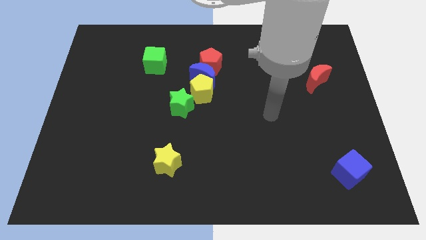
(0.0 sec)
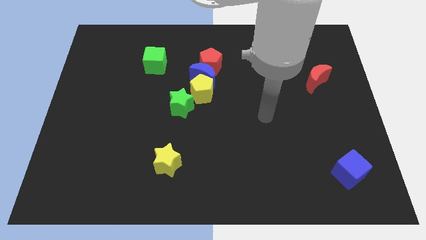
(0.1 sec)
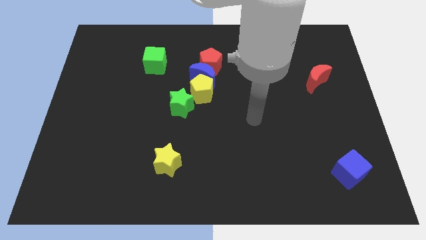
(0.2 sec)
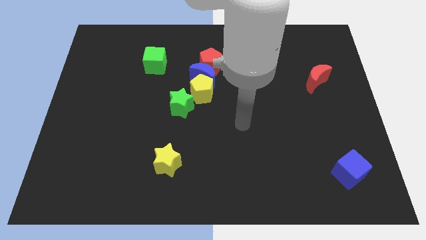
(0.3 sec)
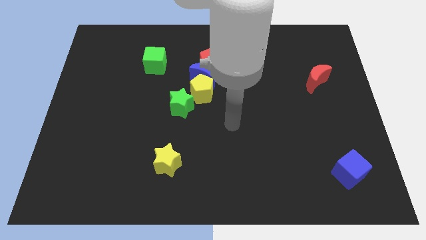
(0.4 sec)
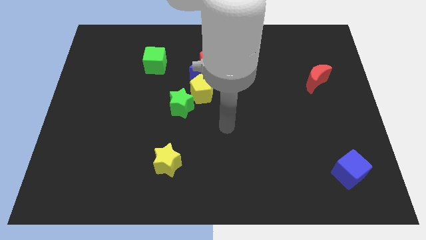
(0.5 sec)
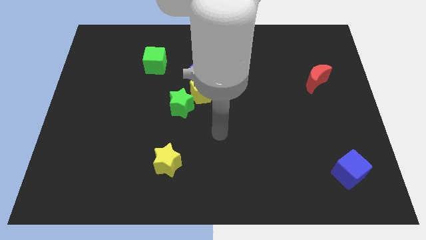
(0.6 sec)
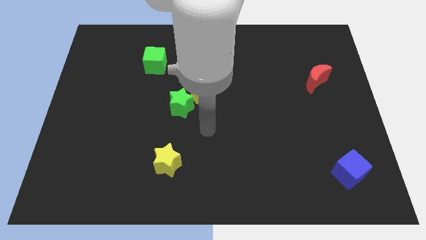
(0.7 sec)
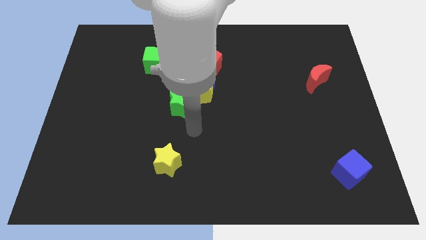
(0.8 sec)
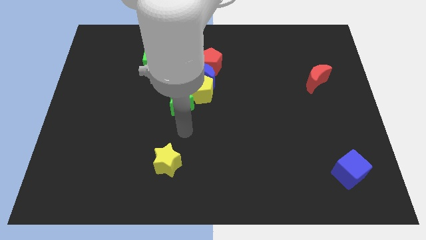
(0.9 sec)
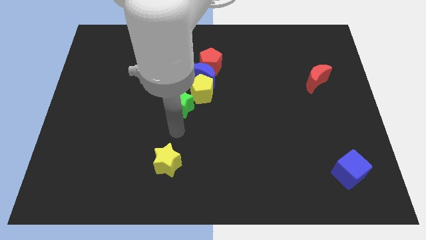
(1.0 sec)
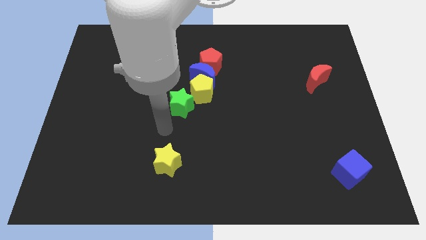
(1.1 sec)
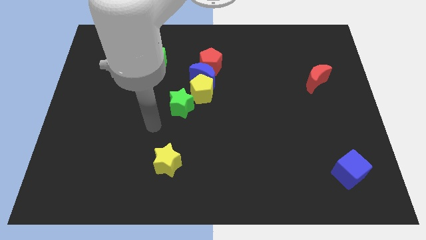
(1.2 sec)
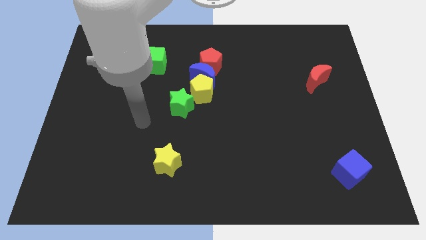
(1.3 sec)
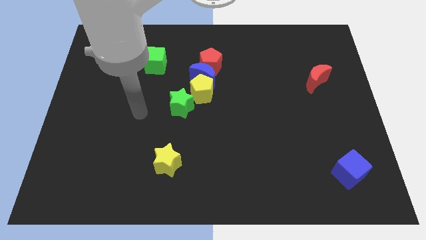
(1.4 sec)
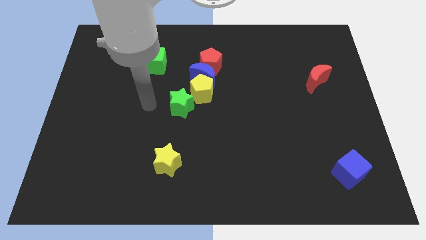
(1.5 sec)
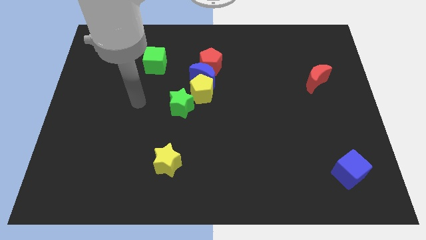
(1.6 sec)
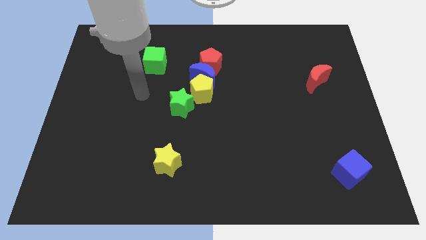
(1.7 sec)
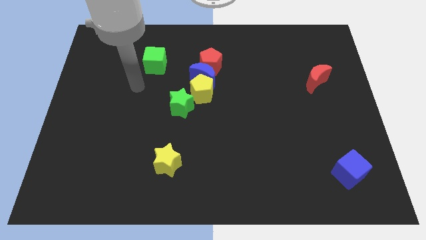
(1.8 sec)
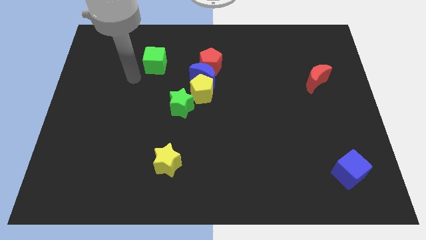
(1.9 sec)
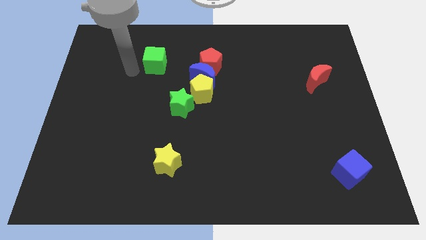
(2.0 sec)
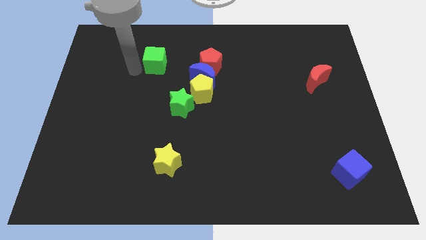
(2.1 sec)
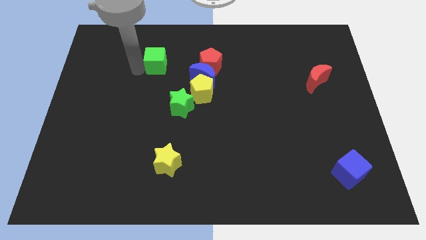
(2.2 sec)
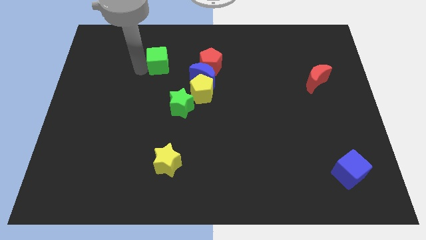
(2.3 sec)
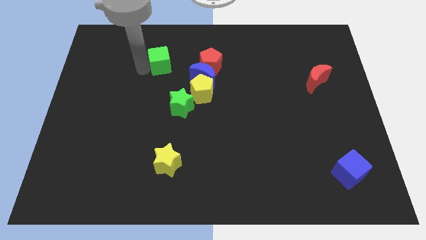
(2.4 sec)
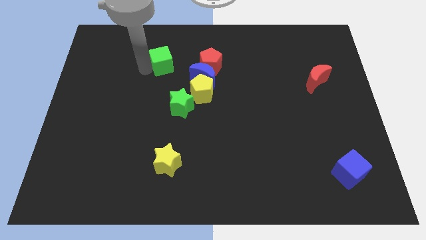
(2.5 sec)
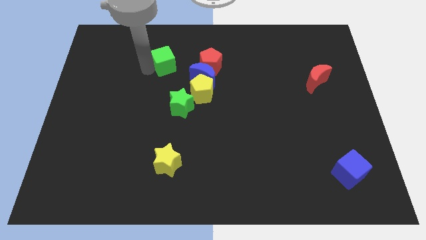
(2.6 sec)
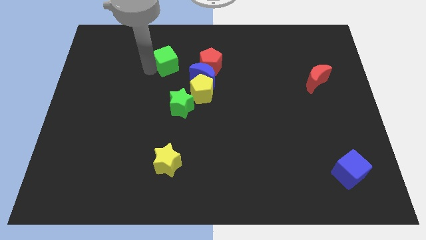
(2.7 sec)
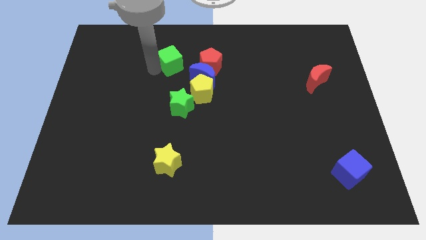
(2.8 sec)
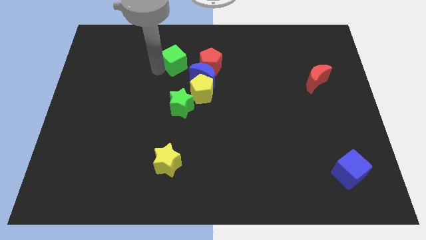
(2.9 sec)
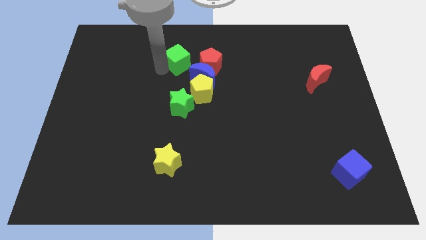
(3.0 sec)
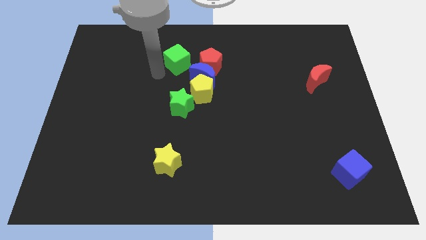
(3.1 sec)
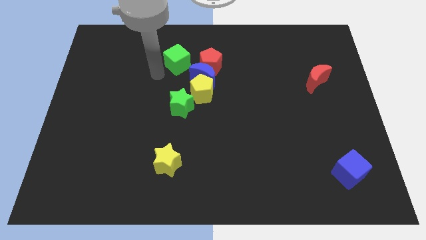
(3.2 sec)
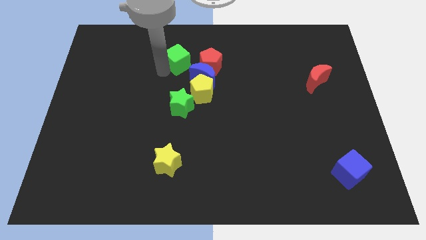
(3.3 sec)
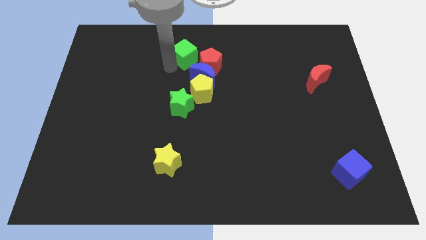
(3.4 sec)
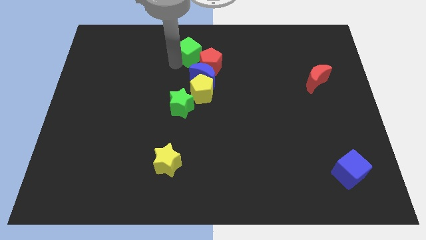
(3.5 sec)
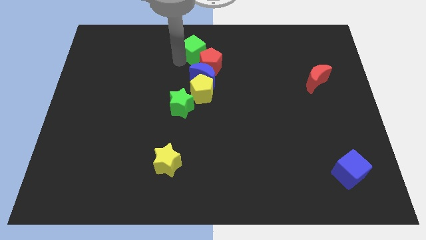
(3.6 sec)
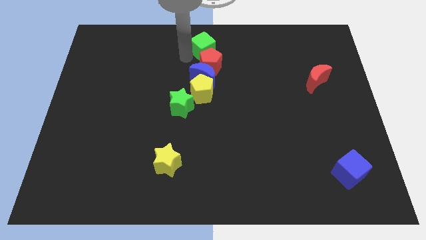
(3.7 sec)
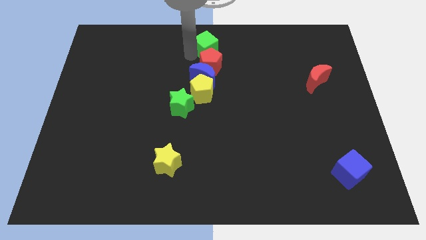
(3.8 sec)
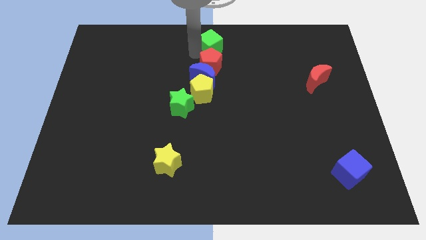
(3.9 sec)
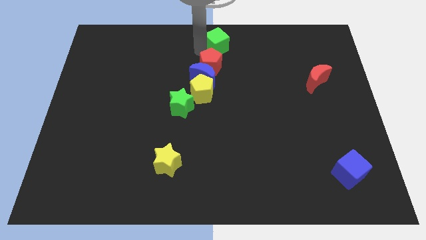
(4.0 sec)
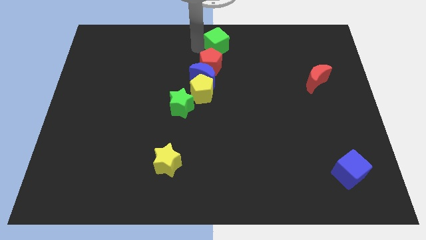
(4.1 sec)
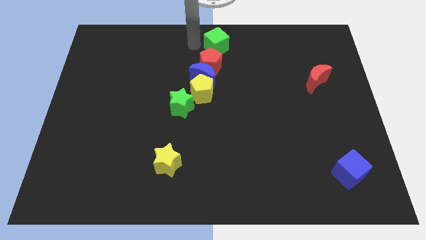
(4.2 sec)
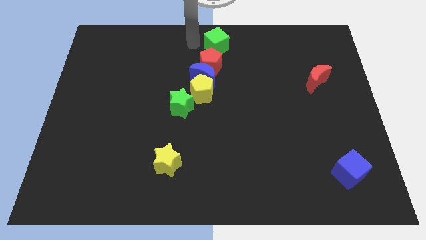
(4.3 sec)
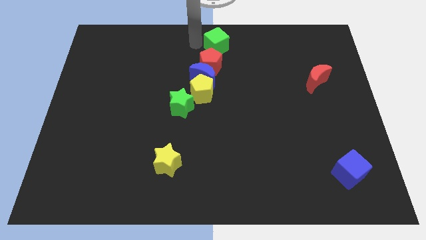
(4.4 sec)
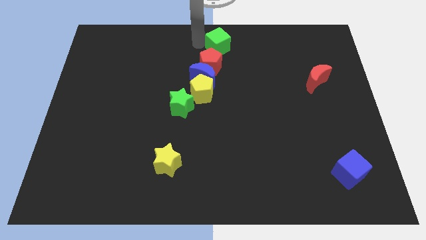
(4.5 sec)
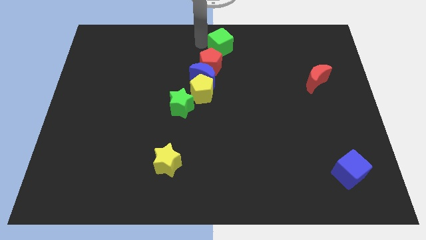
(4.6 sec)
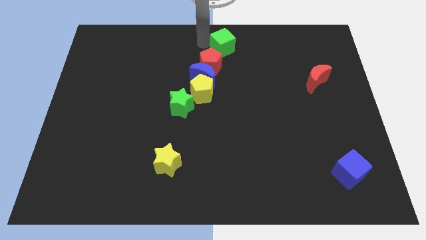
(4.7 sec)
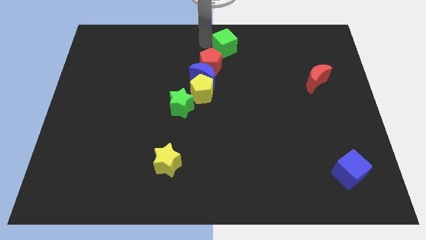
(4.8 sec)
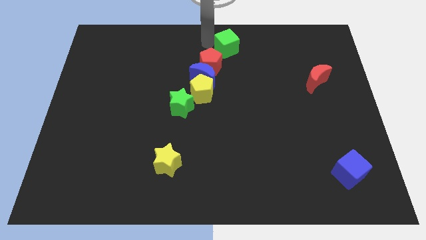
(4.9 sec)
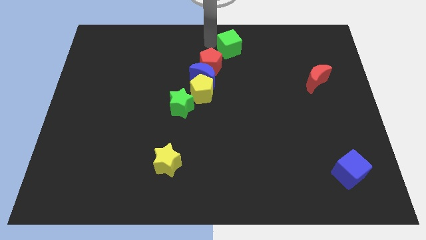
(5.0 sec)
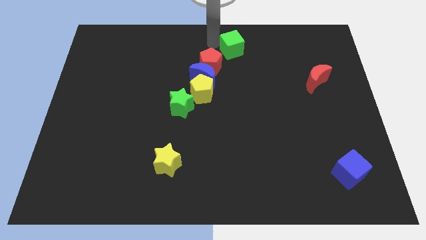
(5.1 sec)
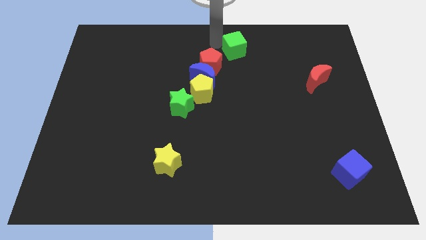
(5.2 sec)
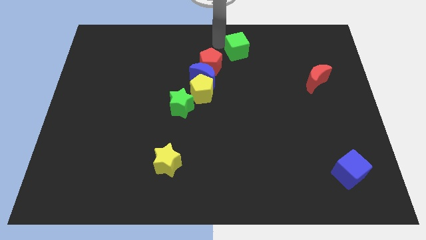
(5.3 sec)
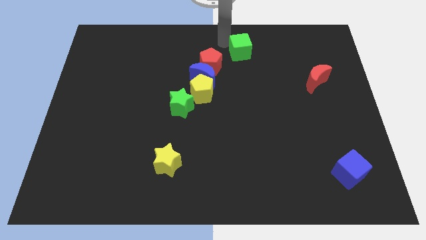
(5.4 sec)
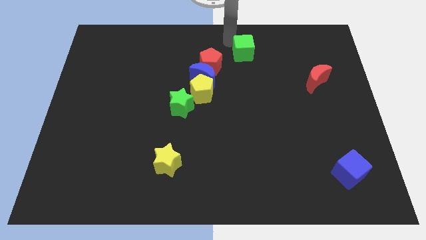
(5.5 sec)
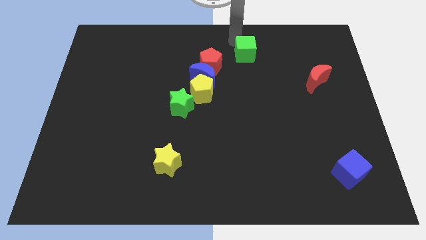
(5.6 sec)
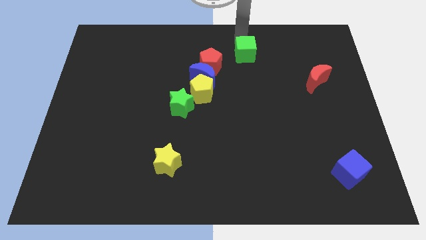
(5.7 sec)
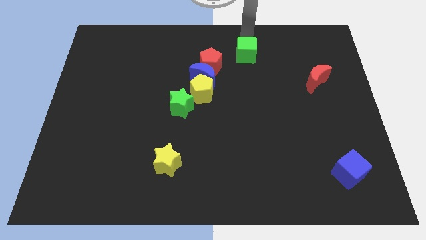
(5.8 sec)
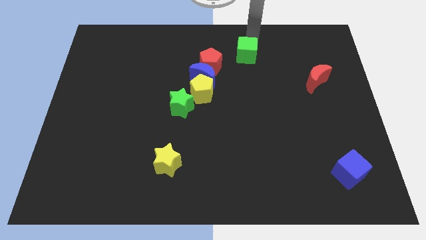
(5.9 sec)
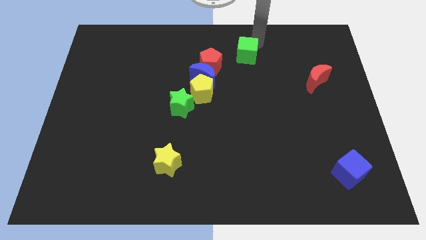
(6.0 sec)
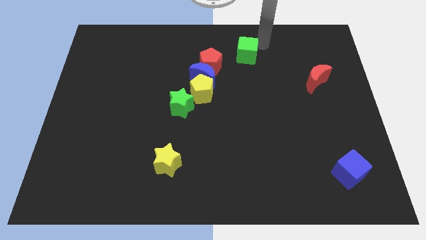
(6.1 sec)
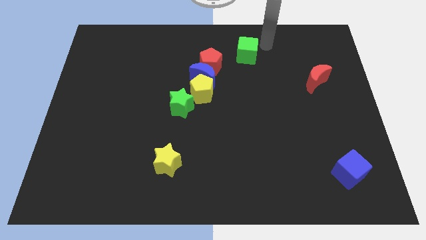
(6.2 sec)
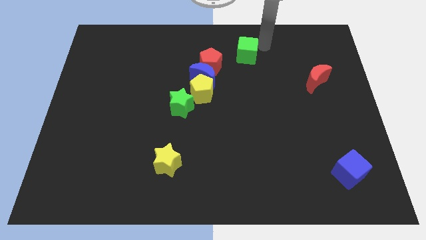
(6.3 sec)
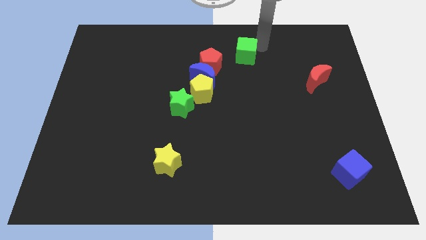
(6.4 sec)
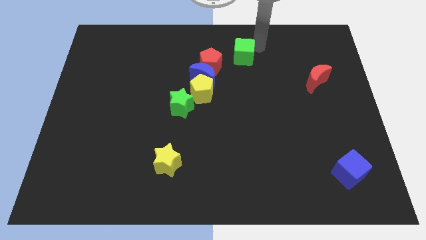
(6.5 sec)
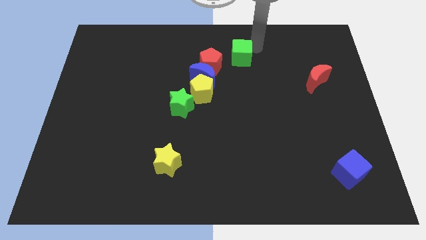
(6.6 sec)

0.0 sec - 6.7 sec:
put the green cube to the top right side of the blue moon

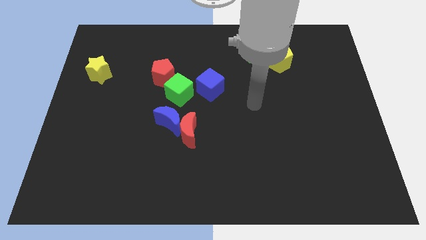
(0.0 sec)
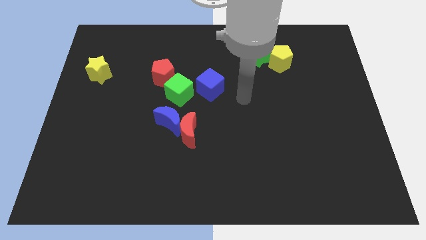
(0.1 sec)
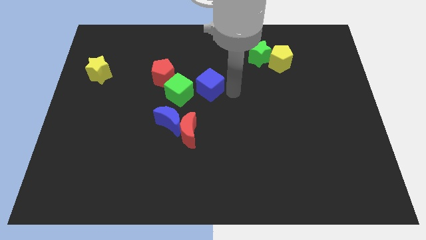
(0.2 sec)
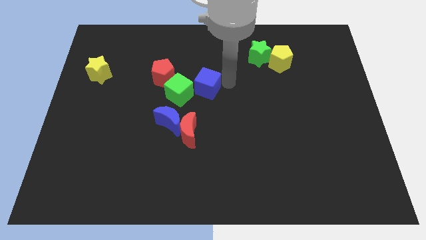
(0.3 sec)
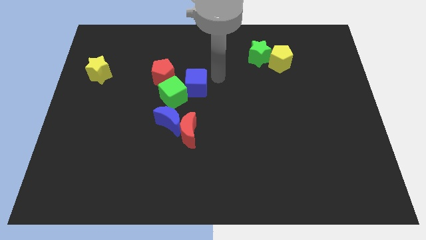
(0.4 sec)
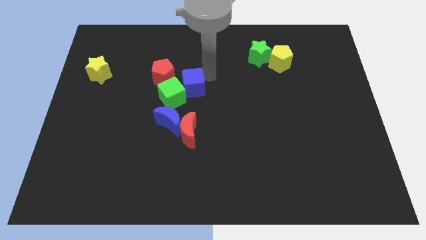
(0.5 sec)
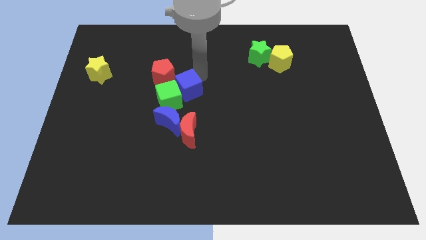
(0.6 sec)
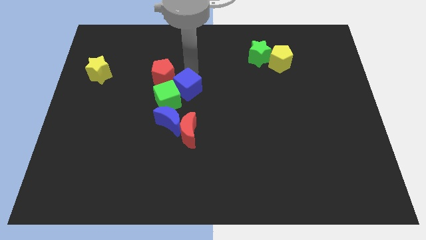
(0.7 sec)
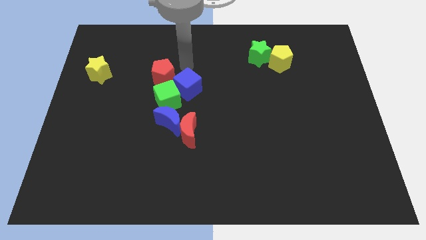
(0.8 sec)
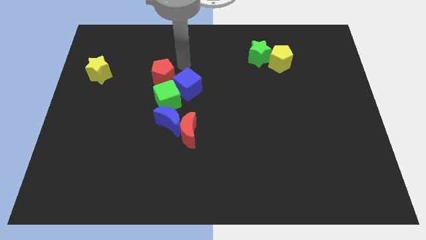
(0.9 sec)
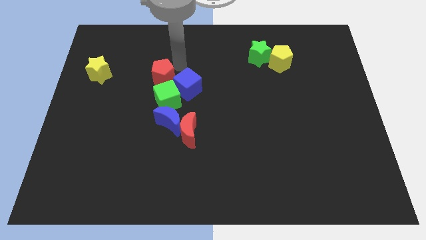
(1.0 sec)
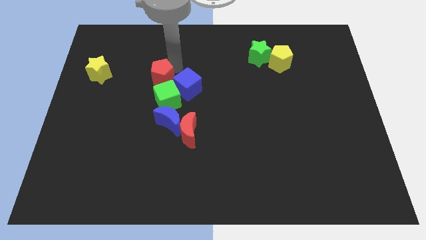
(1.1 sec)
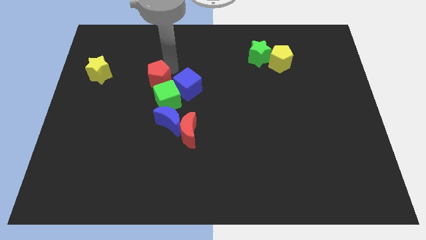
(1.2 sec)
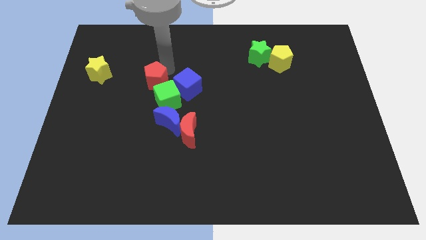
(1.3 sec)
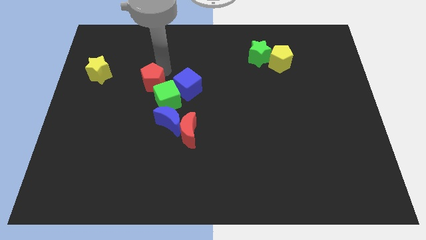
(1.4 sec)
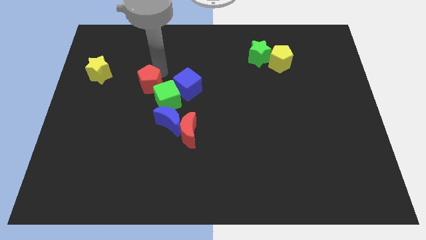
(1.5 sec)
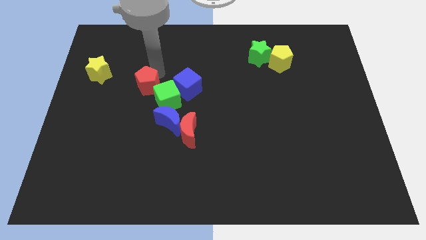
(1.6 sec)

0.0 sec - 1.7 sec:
move the red pentagon to the left side of the green cube
